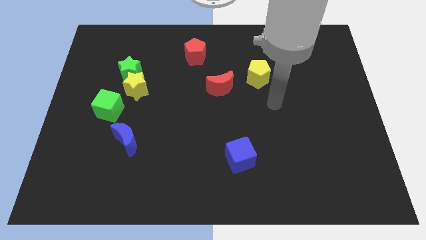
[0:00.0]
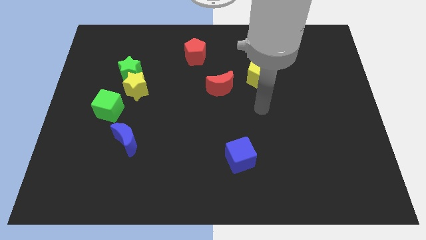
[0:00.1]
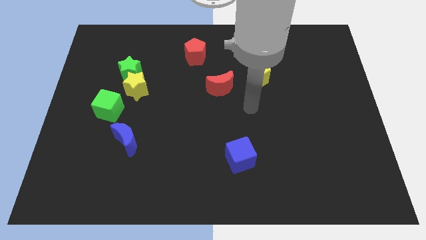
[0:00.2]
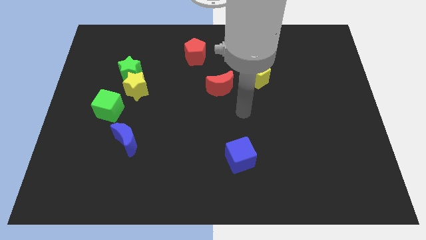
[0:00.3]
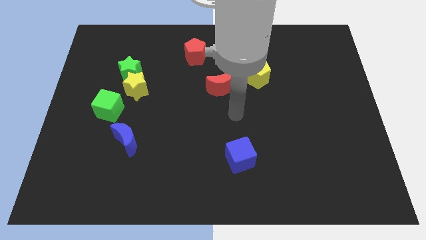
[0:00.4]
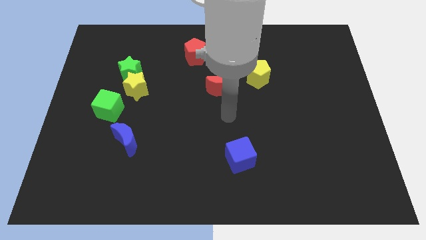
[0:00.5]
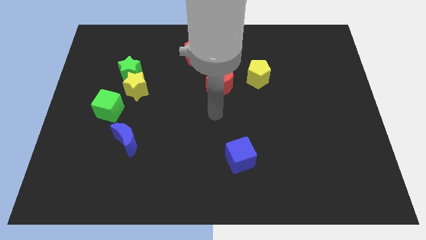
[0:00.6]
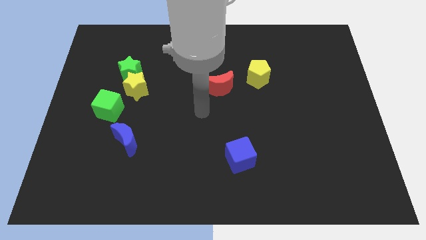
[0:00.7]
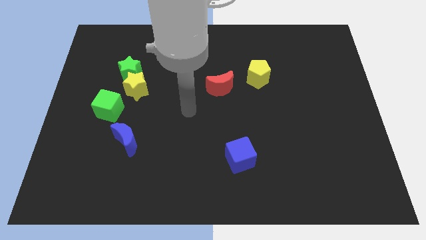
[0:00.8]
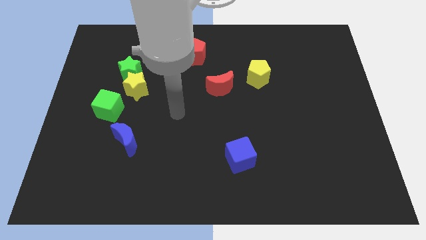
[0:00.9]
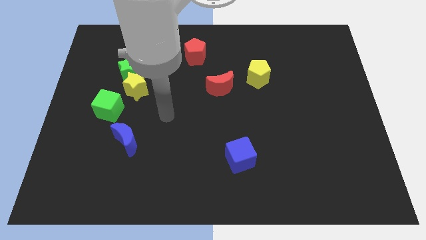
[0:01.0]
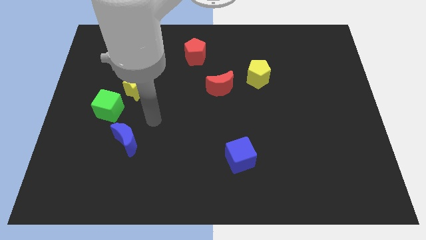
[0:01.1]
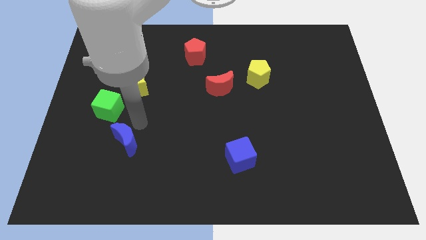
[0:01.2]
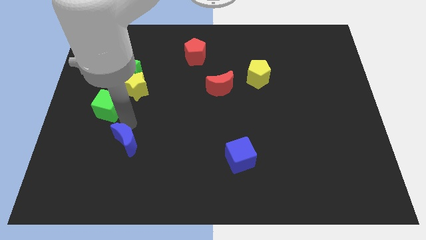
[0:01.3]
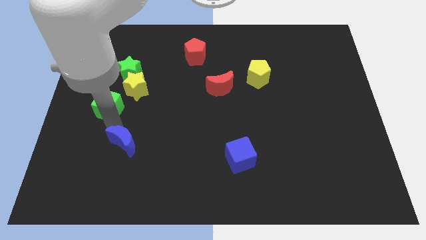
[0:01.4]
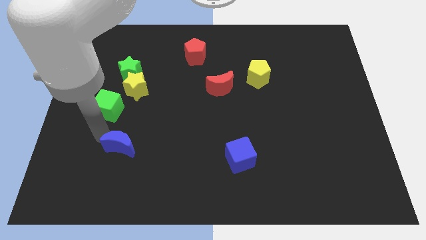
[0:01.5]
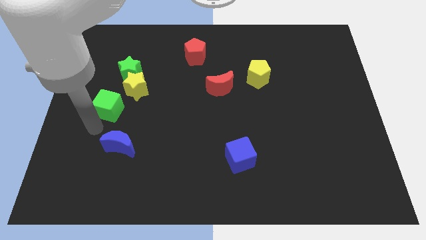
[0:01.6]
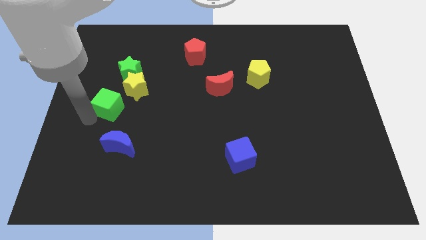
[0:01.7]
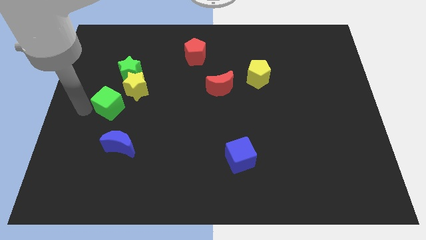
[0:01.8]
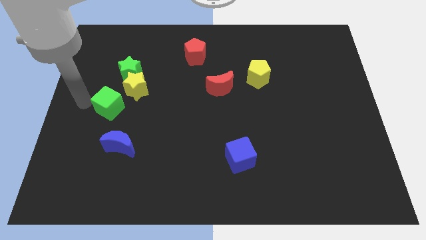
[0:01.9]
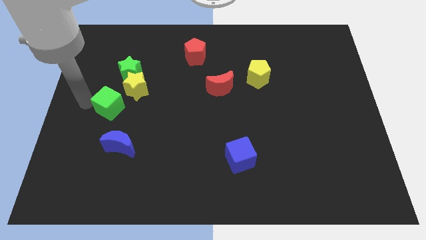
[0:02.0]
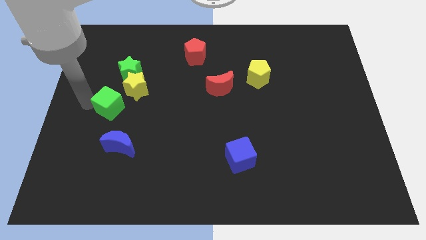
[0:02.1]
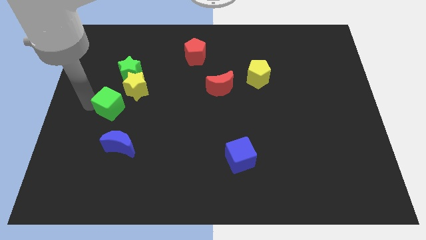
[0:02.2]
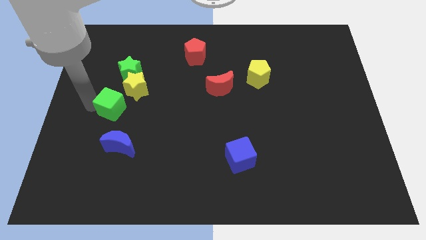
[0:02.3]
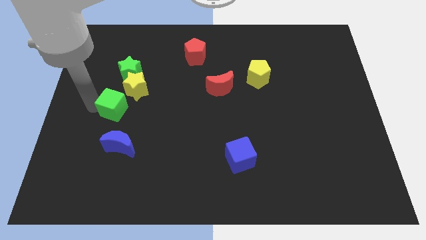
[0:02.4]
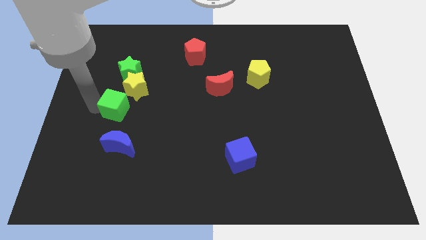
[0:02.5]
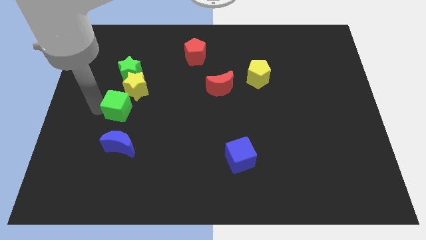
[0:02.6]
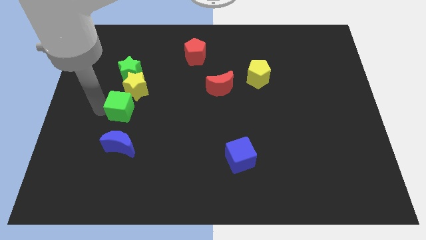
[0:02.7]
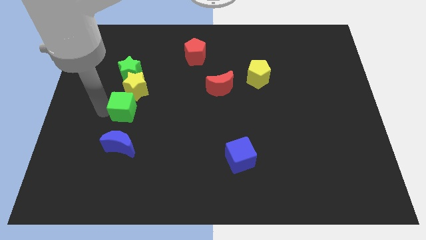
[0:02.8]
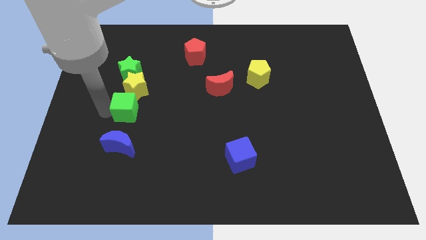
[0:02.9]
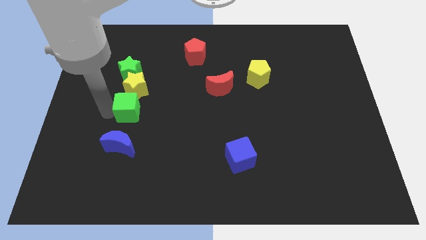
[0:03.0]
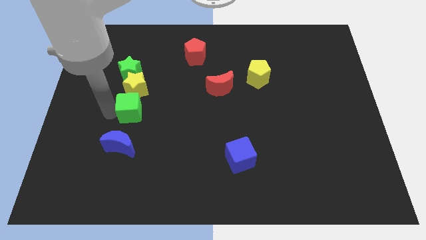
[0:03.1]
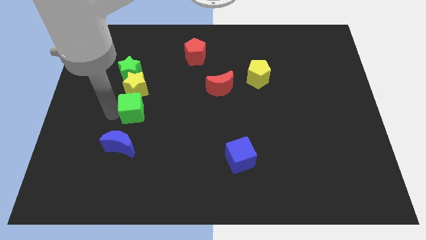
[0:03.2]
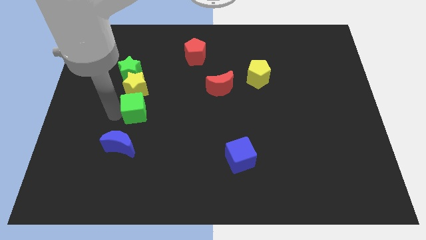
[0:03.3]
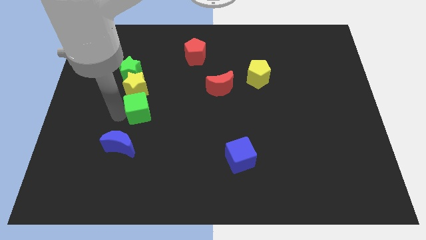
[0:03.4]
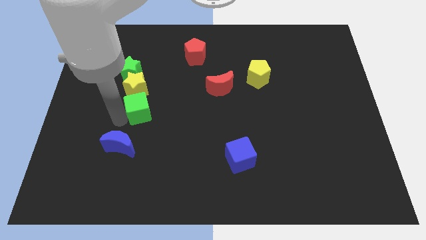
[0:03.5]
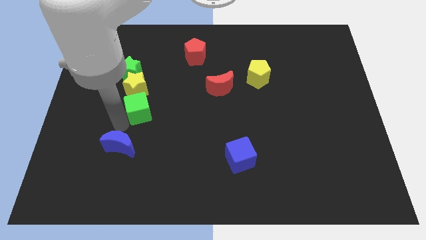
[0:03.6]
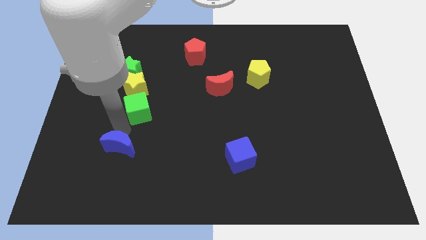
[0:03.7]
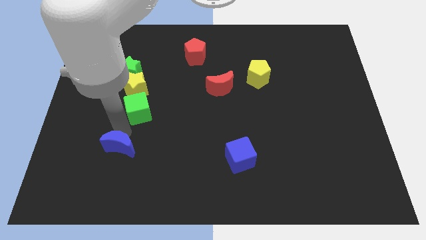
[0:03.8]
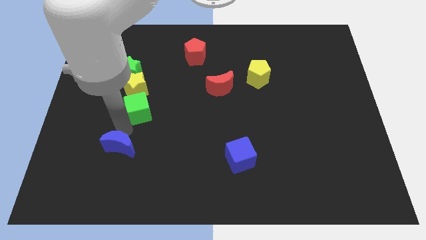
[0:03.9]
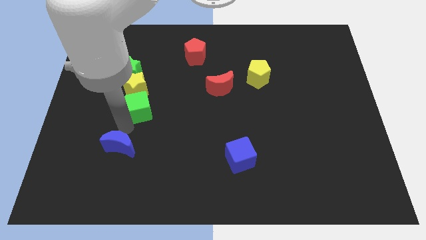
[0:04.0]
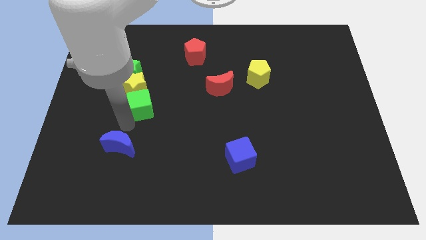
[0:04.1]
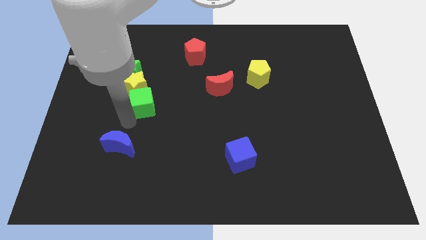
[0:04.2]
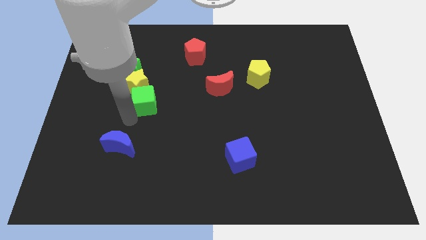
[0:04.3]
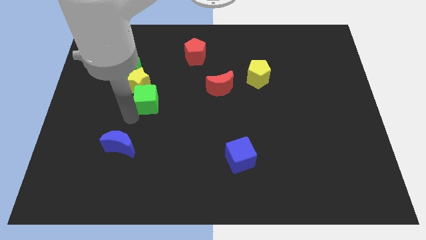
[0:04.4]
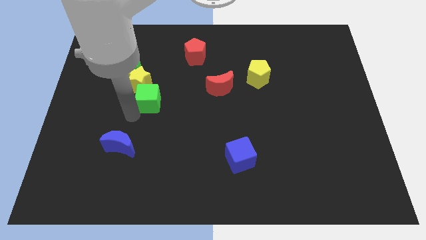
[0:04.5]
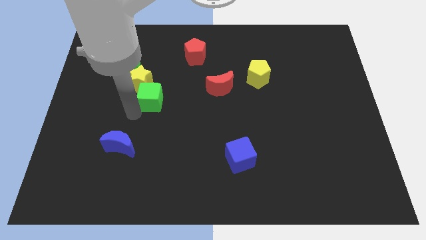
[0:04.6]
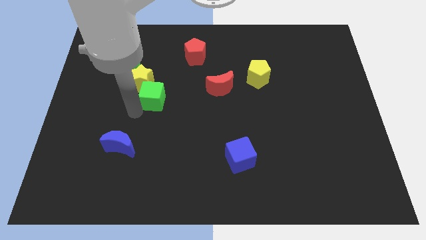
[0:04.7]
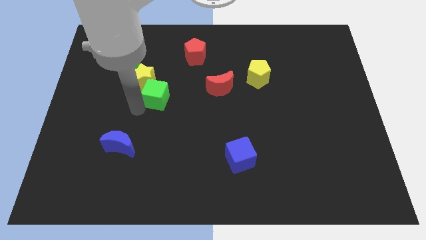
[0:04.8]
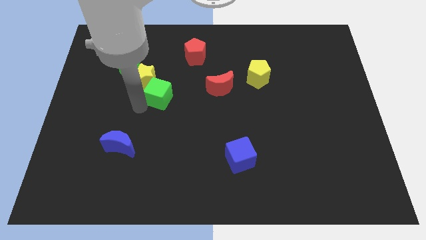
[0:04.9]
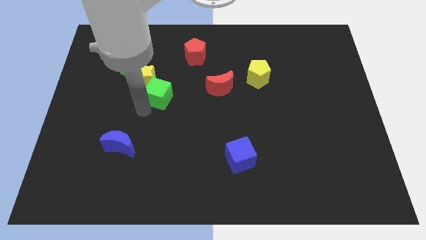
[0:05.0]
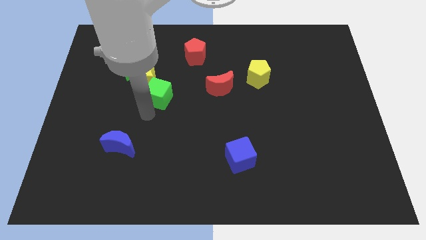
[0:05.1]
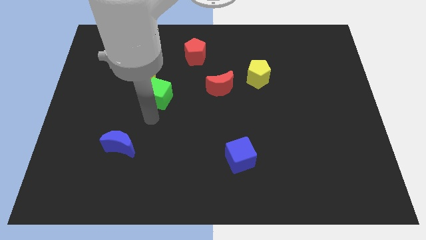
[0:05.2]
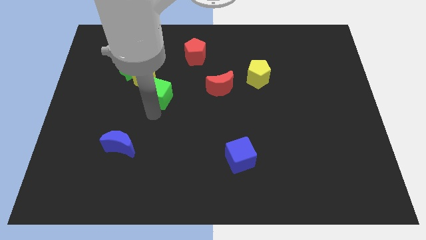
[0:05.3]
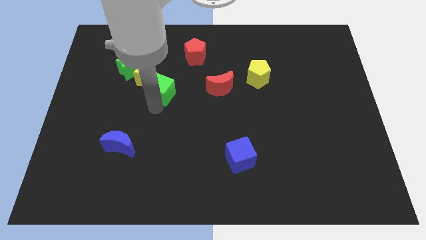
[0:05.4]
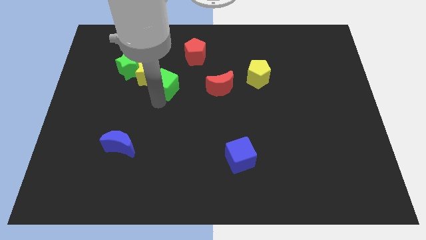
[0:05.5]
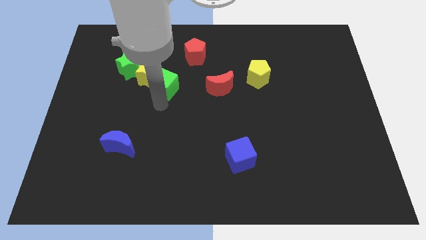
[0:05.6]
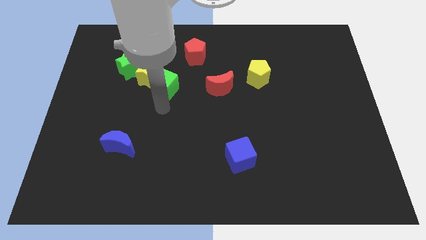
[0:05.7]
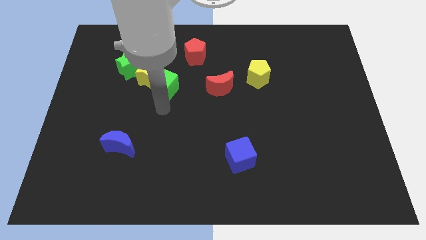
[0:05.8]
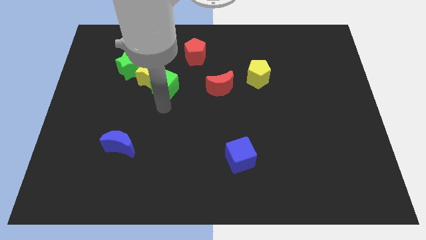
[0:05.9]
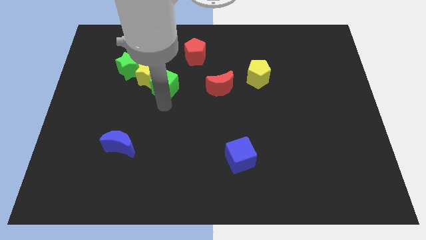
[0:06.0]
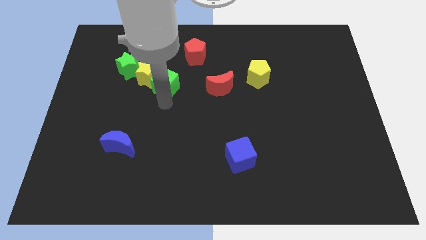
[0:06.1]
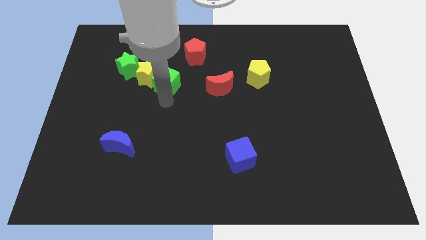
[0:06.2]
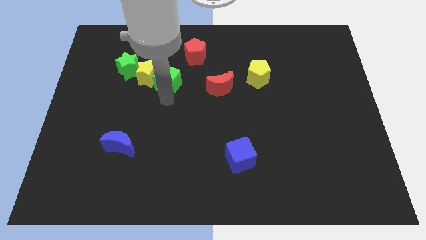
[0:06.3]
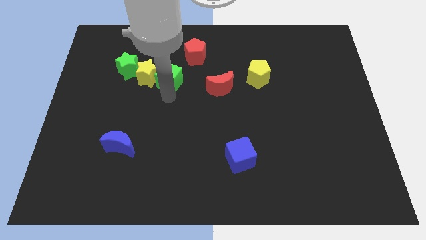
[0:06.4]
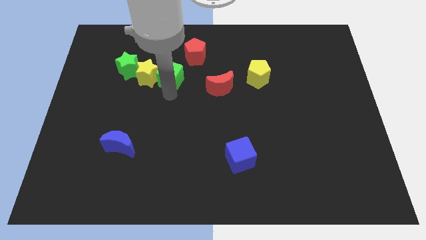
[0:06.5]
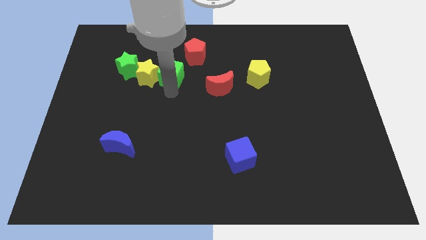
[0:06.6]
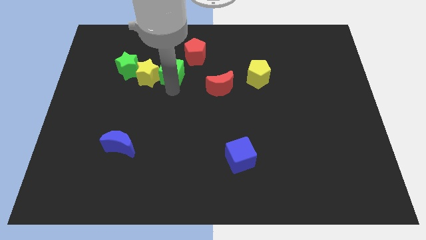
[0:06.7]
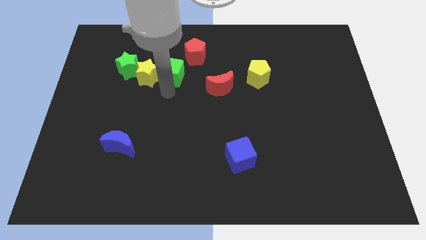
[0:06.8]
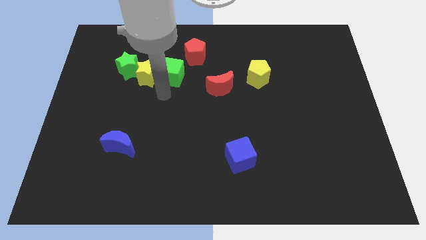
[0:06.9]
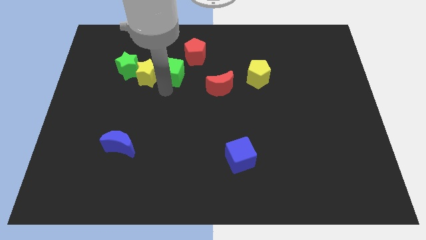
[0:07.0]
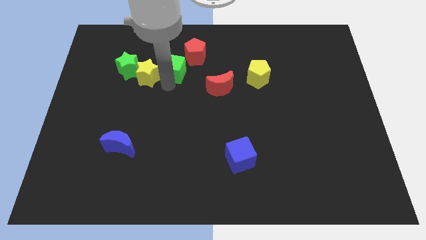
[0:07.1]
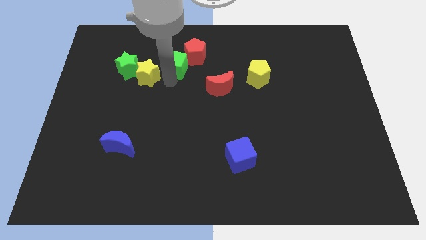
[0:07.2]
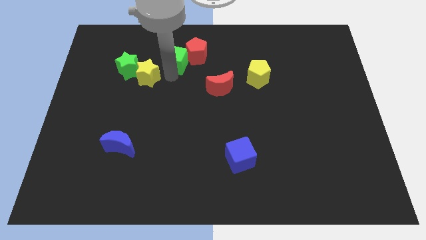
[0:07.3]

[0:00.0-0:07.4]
push the green cube to the red pentagon
